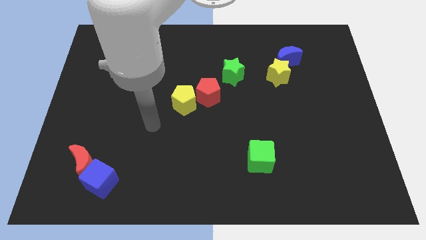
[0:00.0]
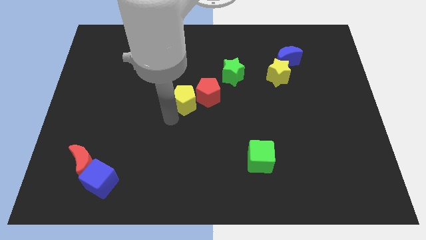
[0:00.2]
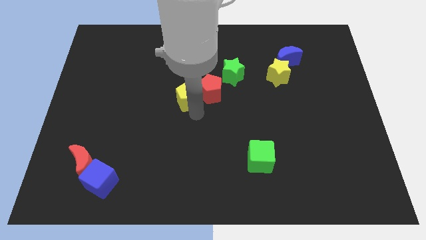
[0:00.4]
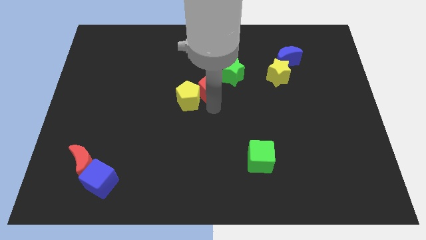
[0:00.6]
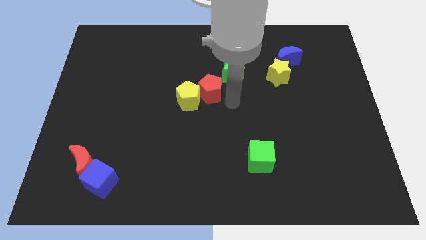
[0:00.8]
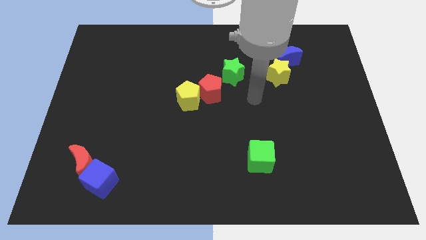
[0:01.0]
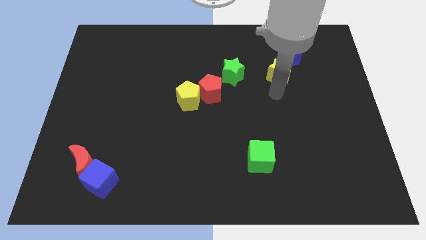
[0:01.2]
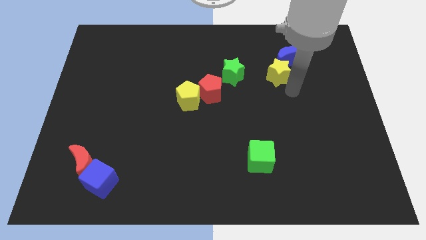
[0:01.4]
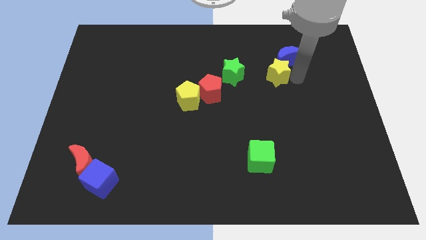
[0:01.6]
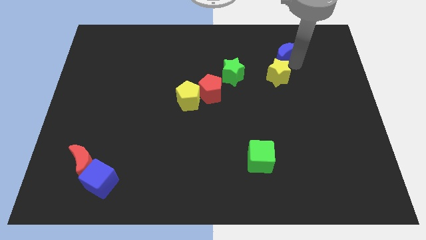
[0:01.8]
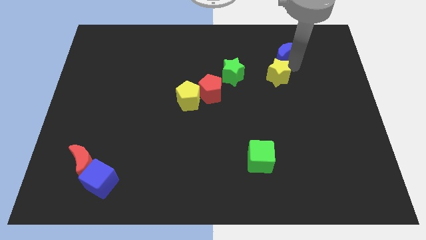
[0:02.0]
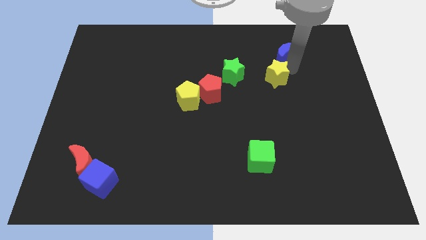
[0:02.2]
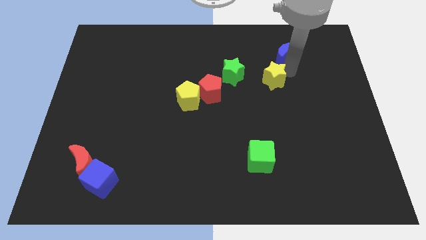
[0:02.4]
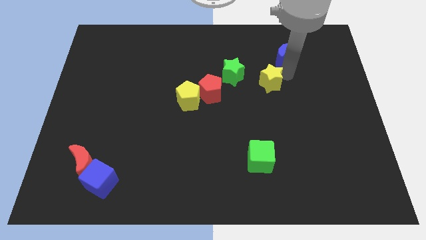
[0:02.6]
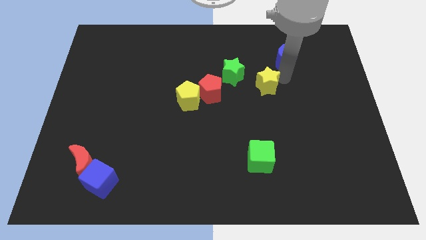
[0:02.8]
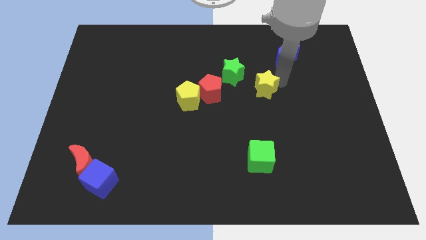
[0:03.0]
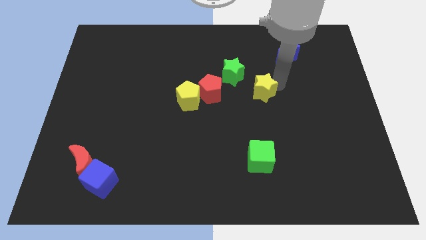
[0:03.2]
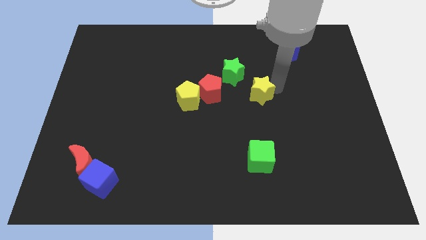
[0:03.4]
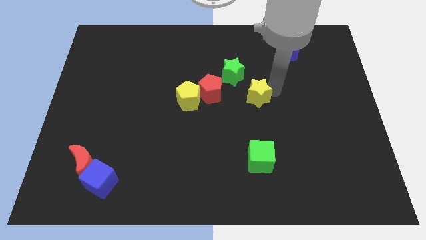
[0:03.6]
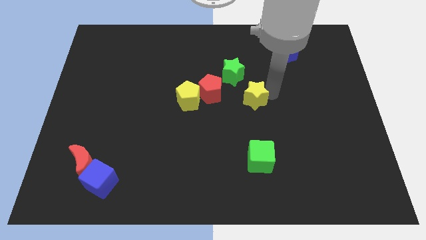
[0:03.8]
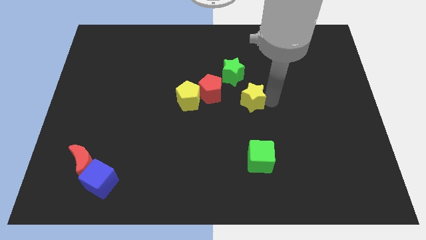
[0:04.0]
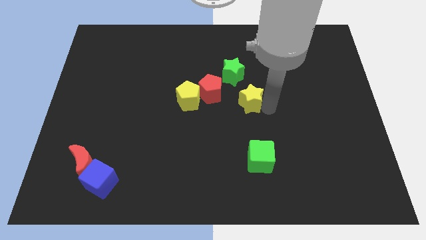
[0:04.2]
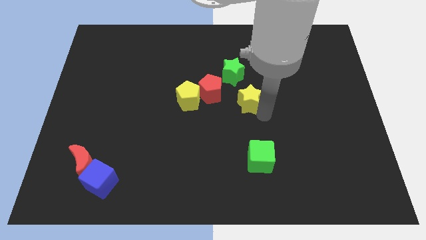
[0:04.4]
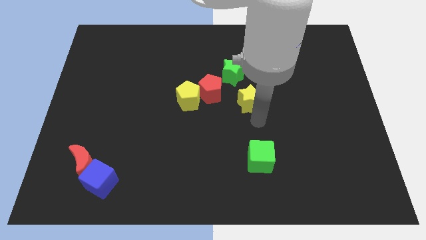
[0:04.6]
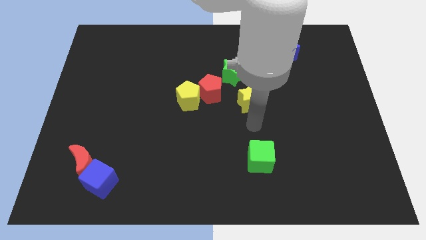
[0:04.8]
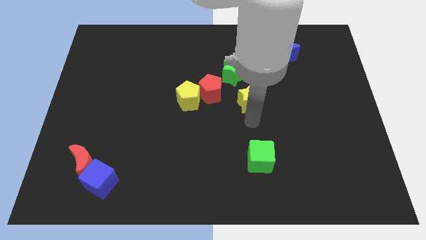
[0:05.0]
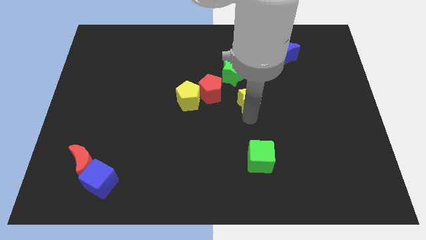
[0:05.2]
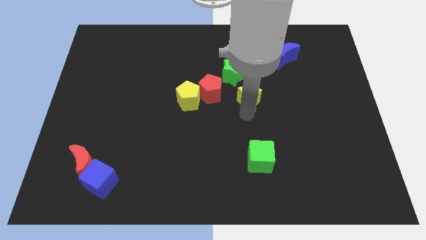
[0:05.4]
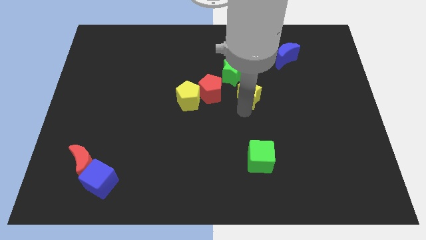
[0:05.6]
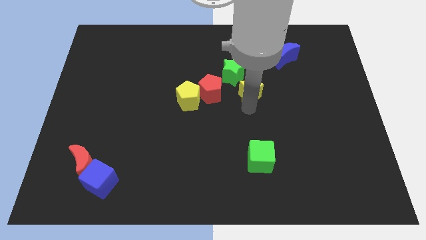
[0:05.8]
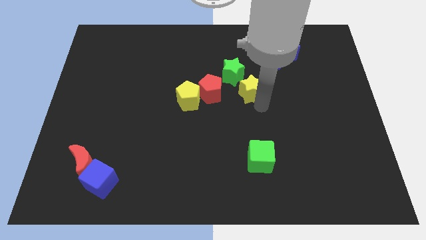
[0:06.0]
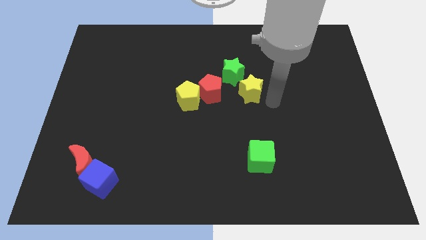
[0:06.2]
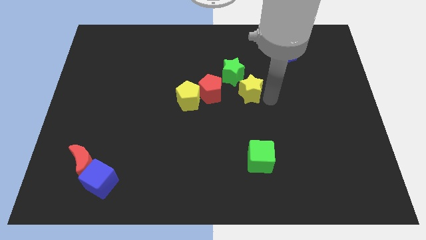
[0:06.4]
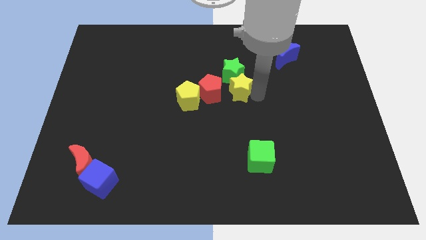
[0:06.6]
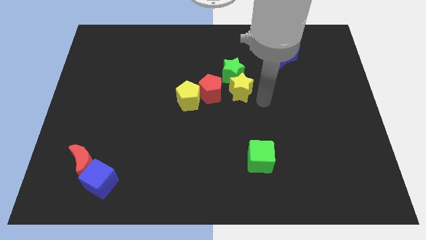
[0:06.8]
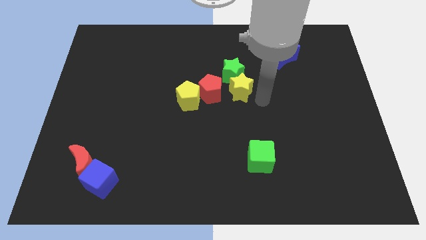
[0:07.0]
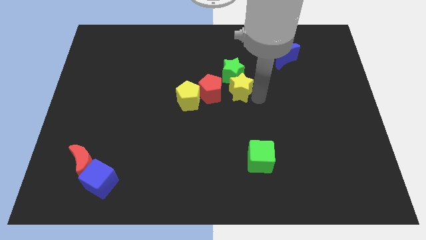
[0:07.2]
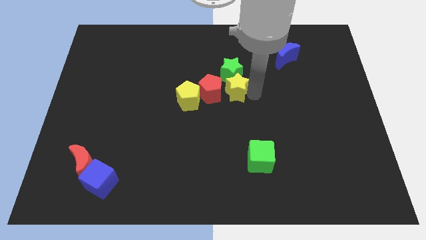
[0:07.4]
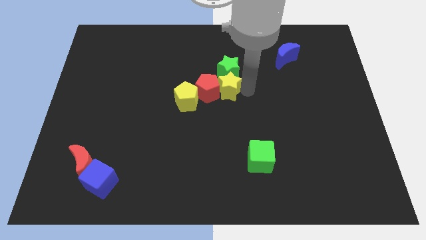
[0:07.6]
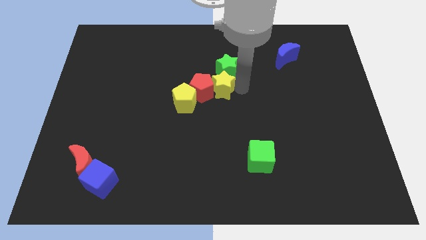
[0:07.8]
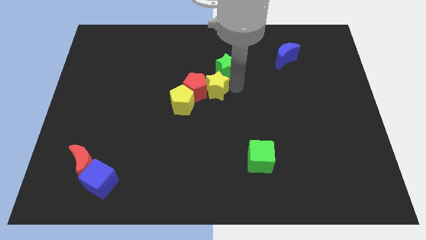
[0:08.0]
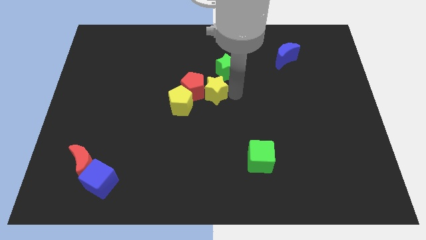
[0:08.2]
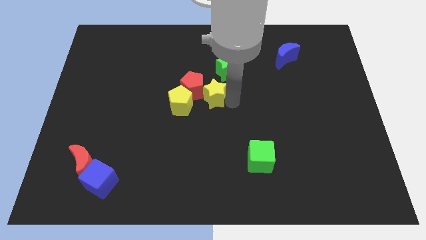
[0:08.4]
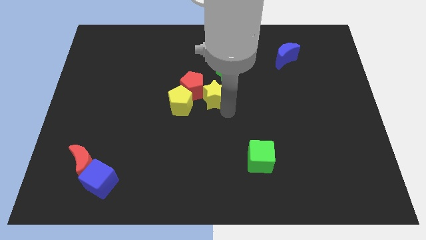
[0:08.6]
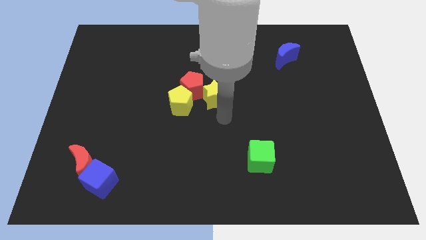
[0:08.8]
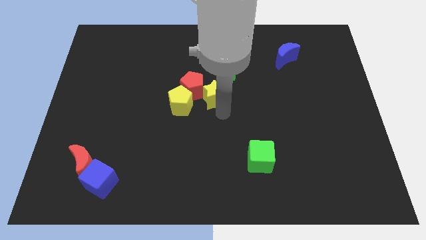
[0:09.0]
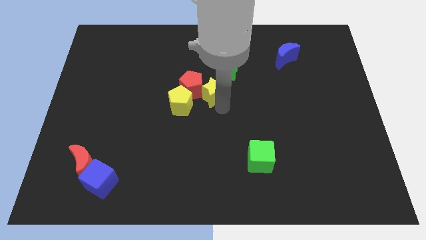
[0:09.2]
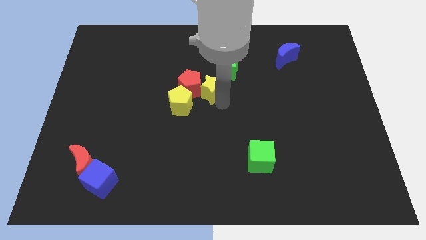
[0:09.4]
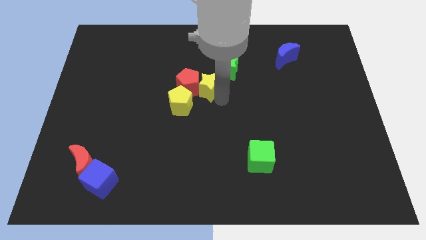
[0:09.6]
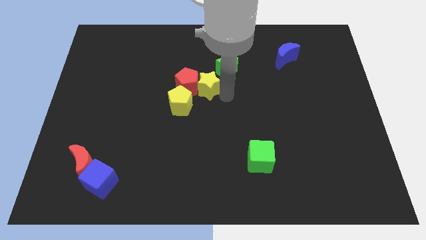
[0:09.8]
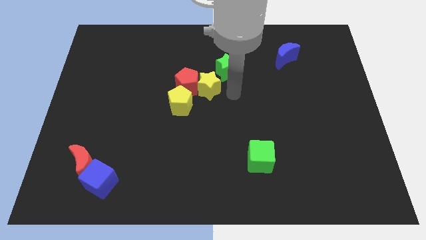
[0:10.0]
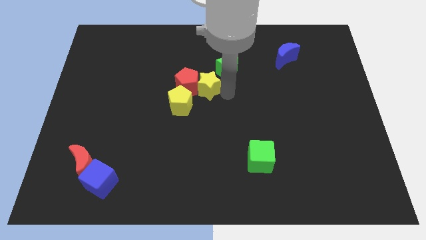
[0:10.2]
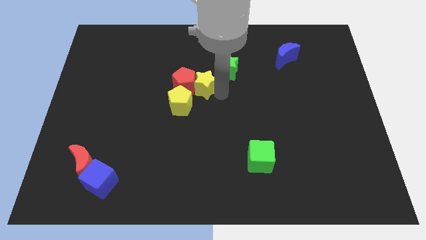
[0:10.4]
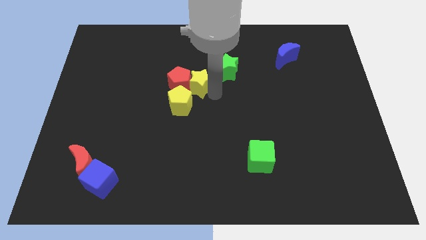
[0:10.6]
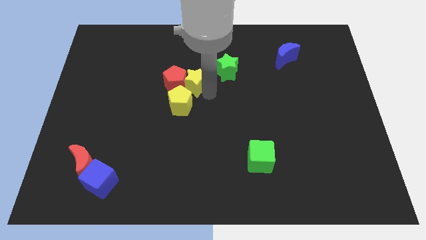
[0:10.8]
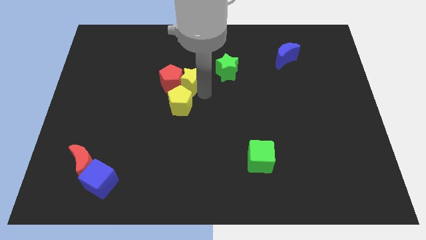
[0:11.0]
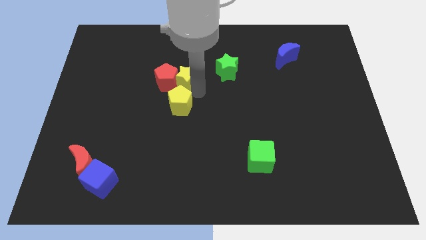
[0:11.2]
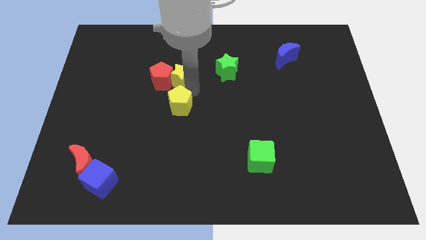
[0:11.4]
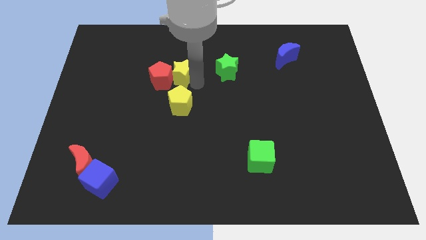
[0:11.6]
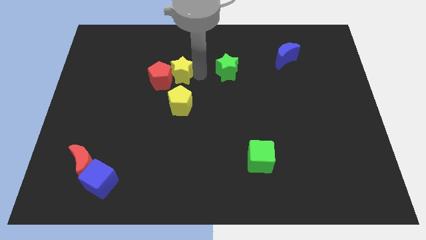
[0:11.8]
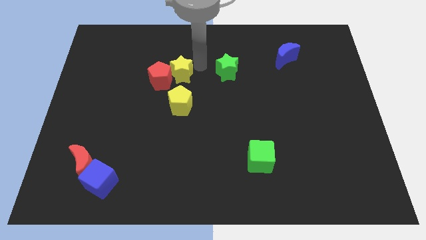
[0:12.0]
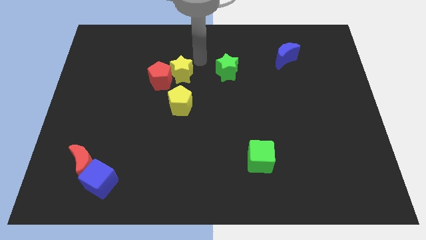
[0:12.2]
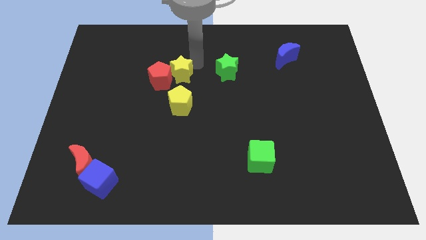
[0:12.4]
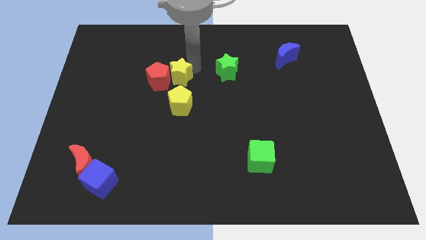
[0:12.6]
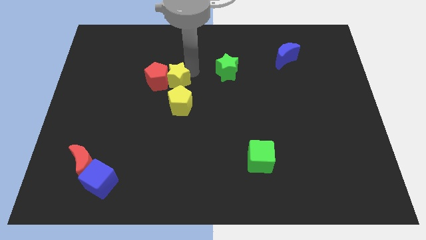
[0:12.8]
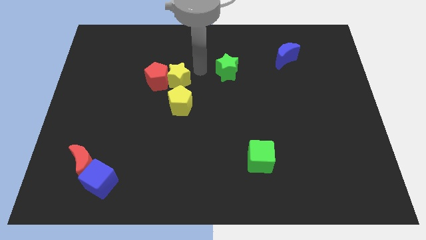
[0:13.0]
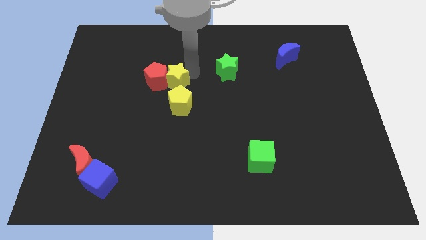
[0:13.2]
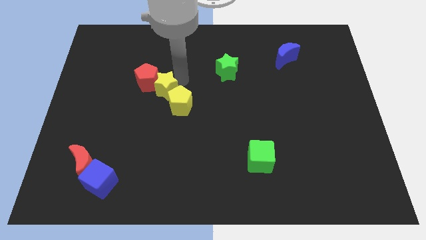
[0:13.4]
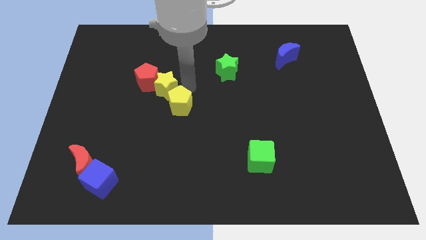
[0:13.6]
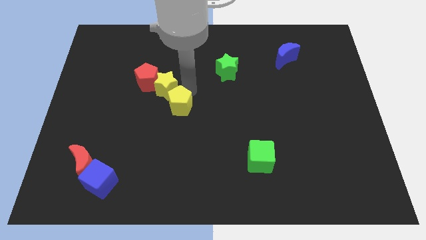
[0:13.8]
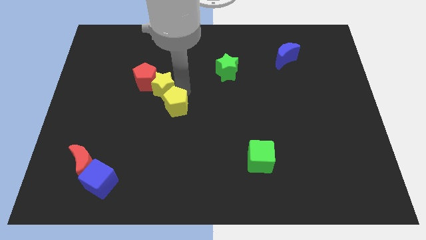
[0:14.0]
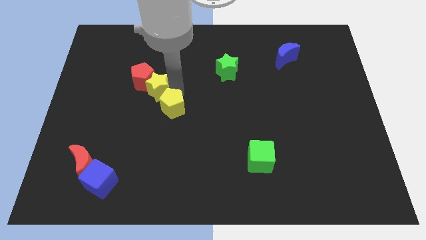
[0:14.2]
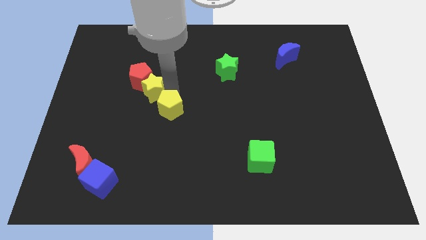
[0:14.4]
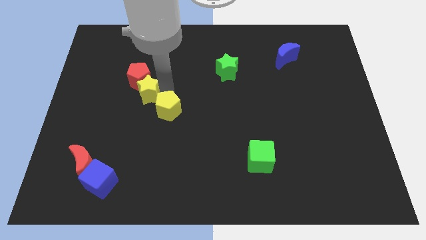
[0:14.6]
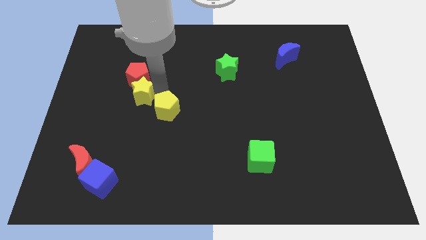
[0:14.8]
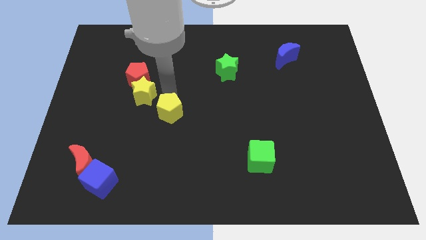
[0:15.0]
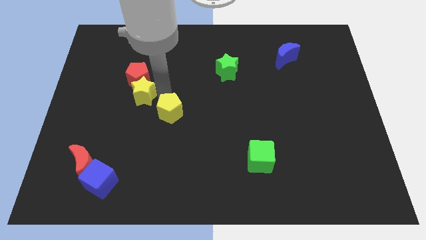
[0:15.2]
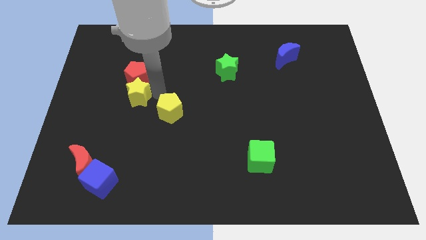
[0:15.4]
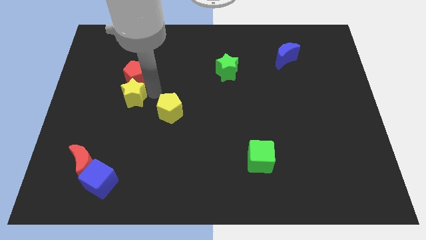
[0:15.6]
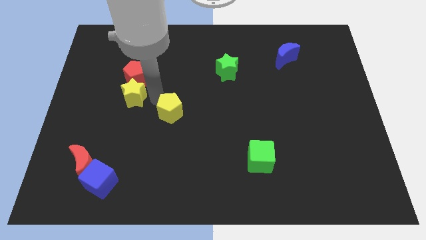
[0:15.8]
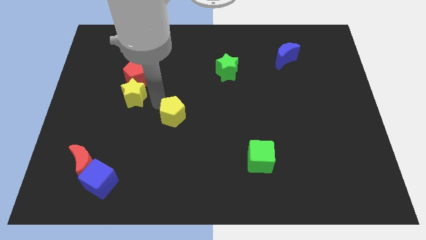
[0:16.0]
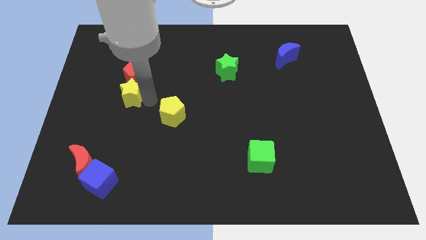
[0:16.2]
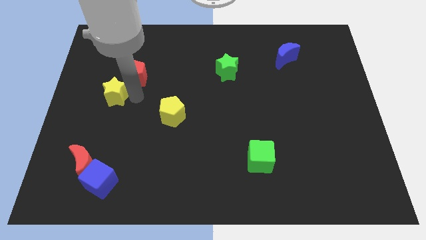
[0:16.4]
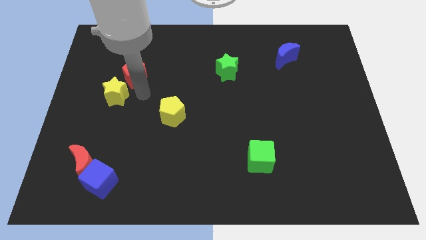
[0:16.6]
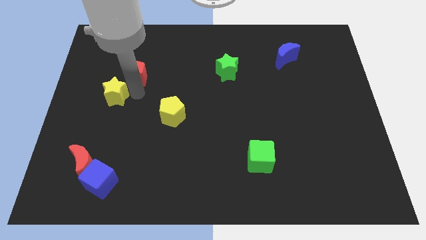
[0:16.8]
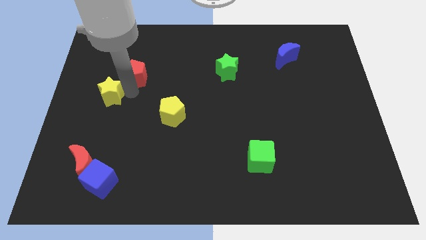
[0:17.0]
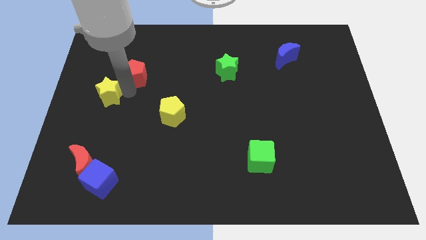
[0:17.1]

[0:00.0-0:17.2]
push the yellow star to the center left
